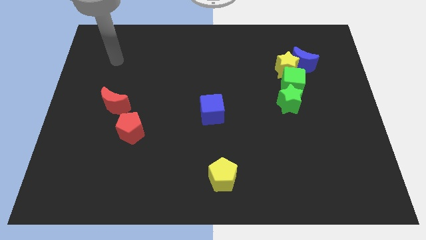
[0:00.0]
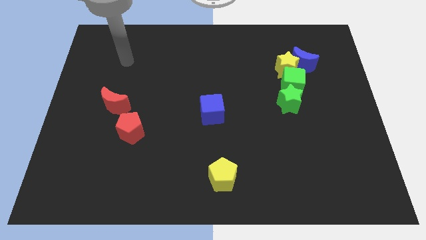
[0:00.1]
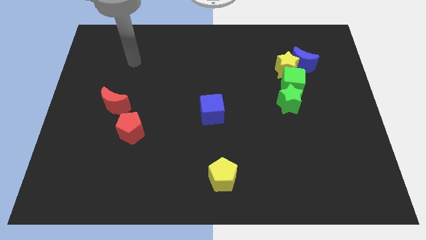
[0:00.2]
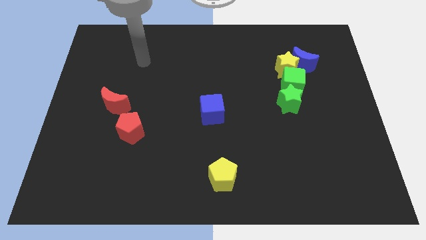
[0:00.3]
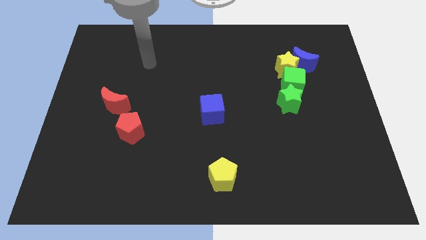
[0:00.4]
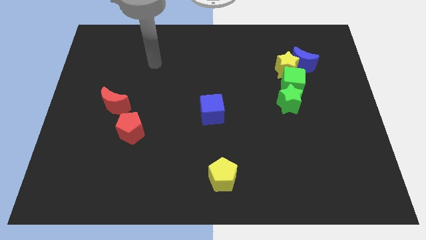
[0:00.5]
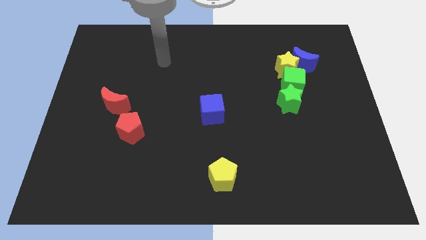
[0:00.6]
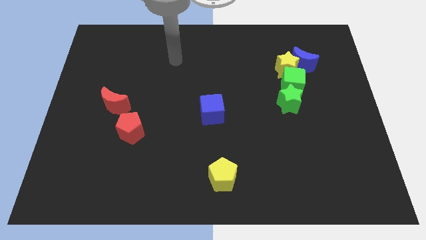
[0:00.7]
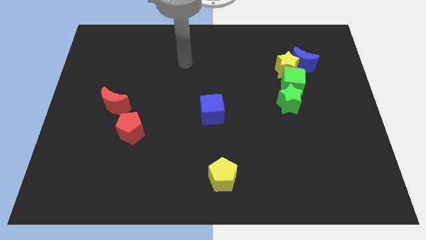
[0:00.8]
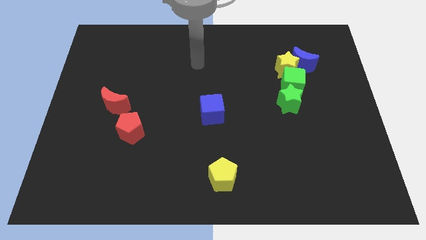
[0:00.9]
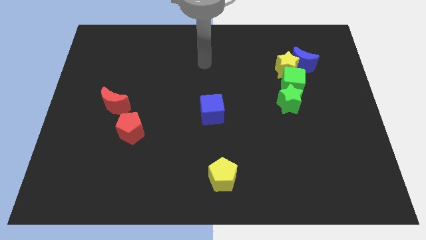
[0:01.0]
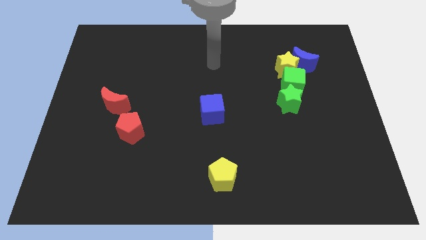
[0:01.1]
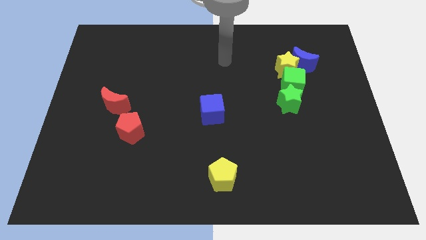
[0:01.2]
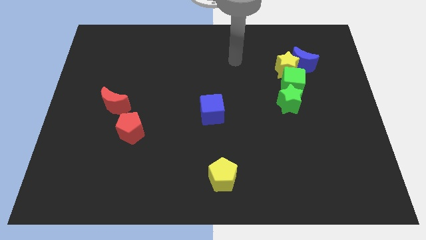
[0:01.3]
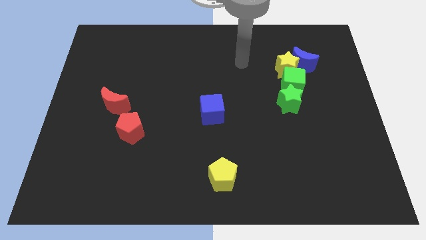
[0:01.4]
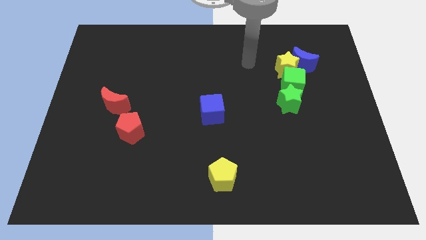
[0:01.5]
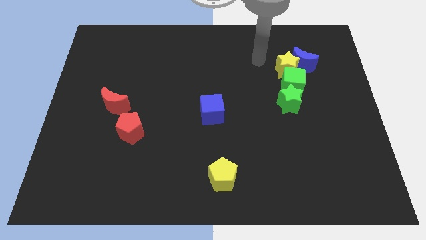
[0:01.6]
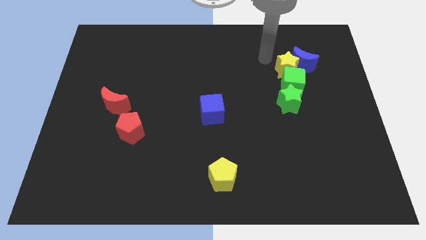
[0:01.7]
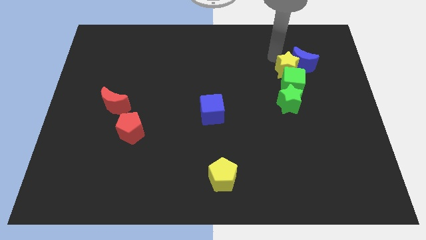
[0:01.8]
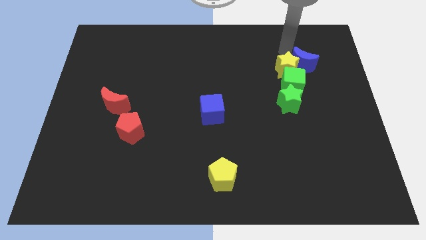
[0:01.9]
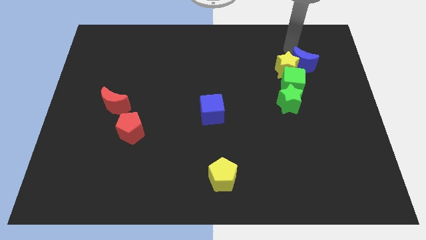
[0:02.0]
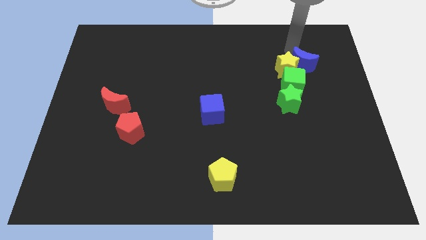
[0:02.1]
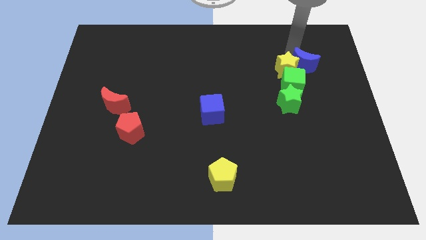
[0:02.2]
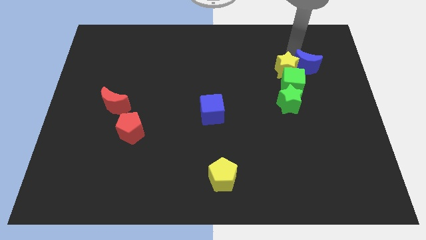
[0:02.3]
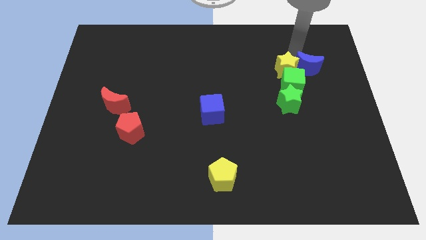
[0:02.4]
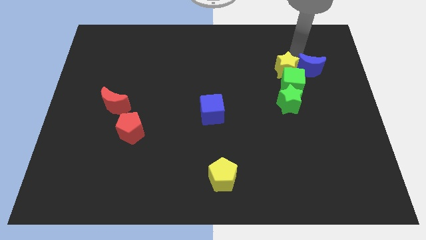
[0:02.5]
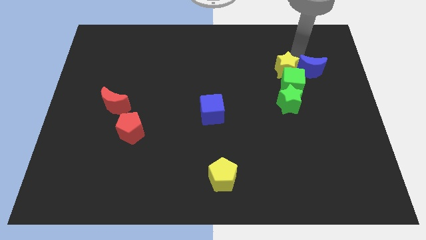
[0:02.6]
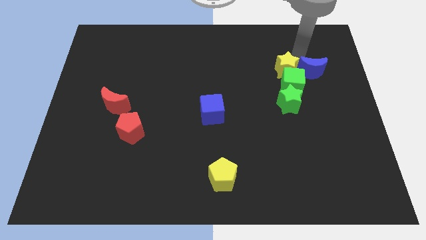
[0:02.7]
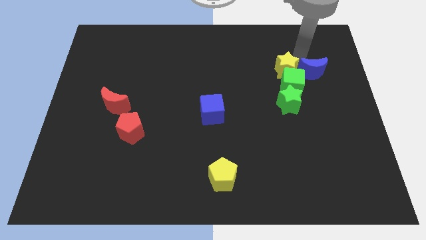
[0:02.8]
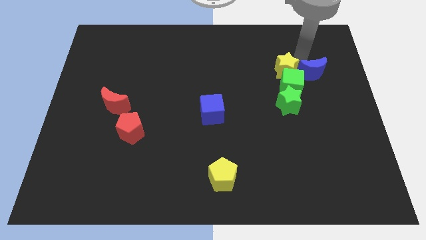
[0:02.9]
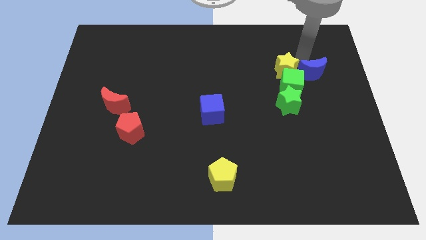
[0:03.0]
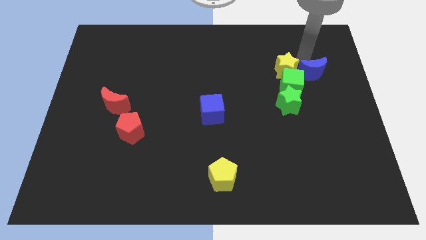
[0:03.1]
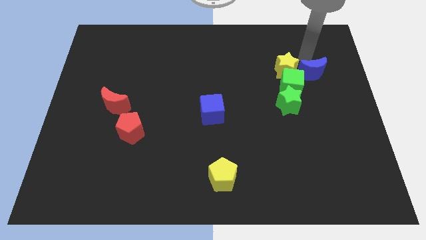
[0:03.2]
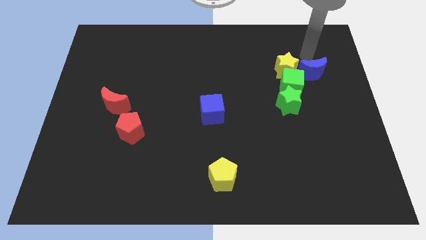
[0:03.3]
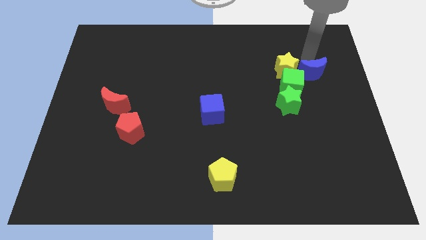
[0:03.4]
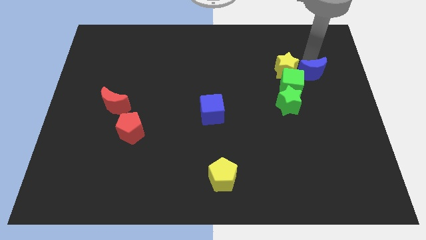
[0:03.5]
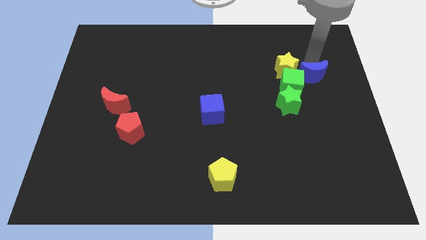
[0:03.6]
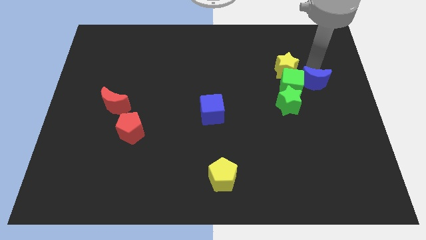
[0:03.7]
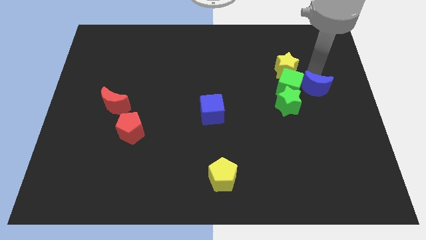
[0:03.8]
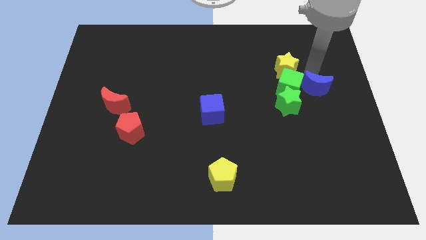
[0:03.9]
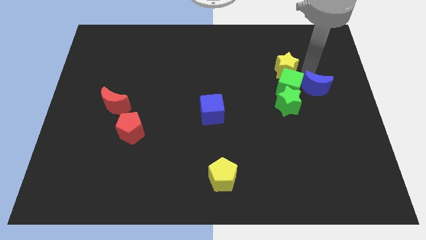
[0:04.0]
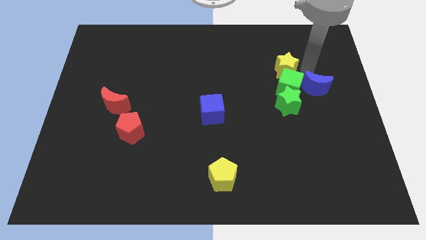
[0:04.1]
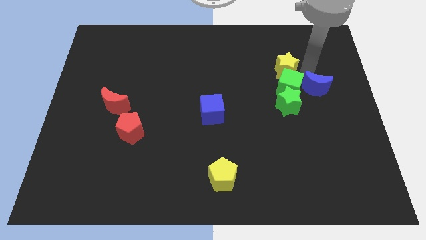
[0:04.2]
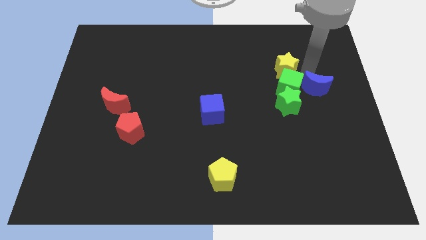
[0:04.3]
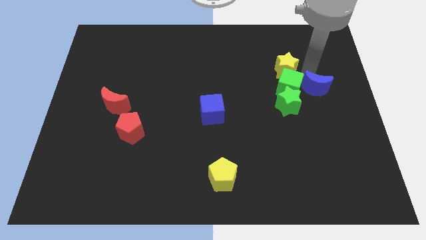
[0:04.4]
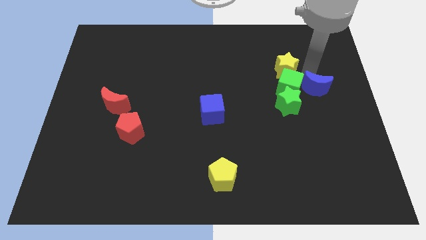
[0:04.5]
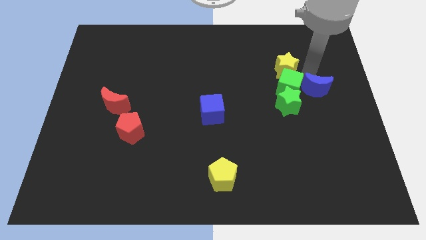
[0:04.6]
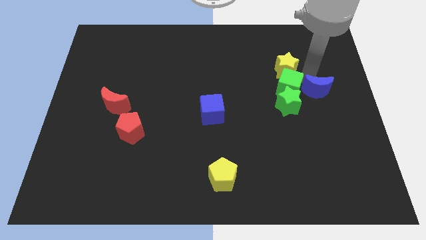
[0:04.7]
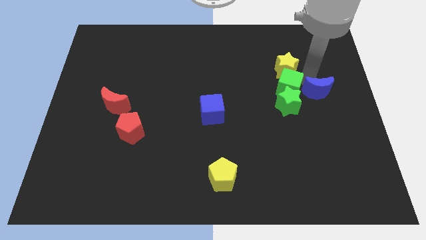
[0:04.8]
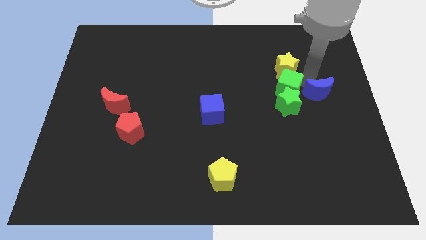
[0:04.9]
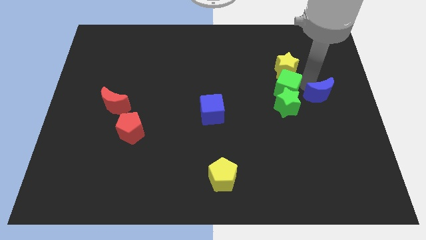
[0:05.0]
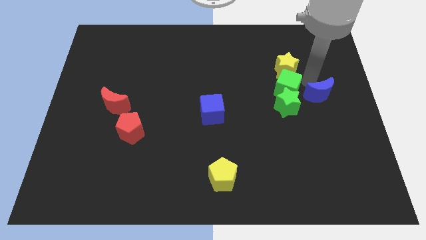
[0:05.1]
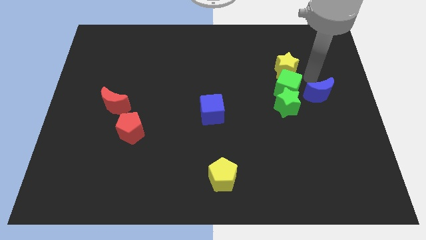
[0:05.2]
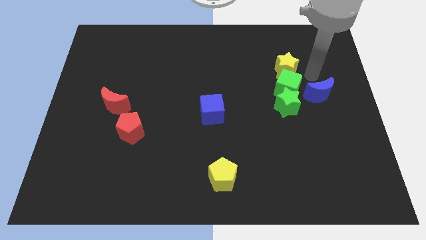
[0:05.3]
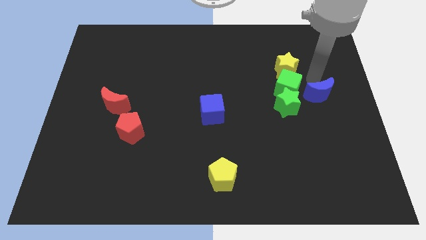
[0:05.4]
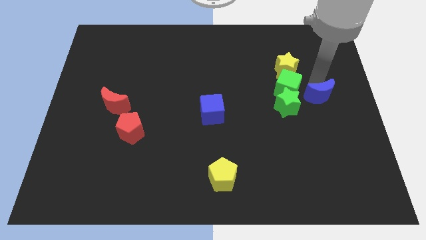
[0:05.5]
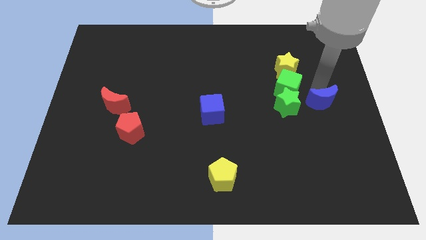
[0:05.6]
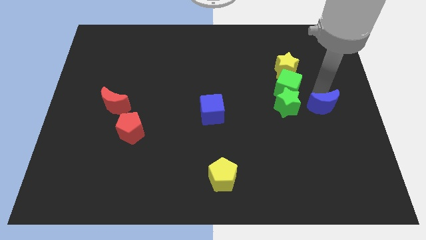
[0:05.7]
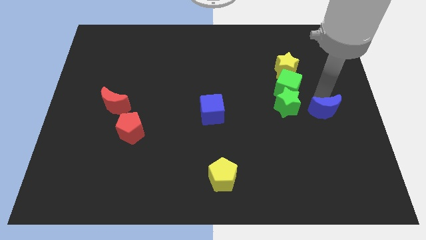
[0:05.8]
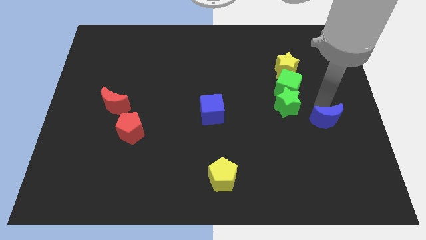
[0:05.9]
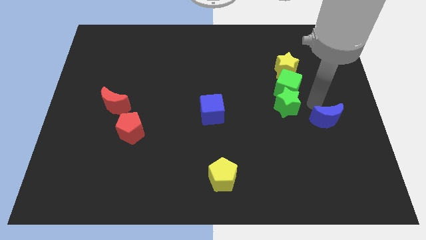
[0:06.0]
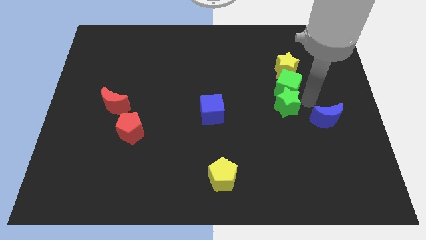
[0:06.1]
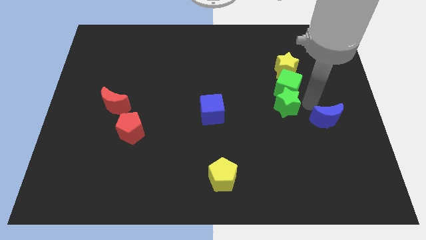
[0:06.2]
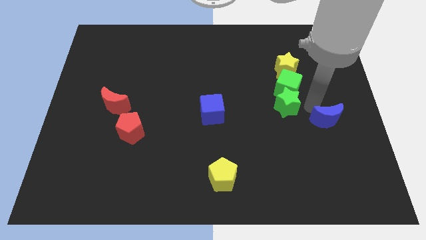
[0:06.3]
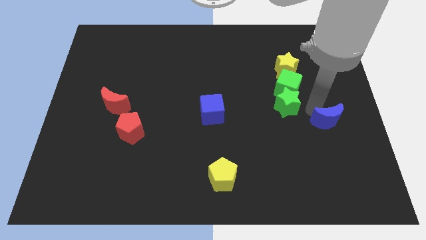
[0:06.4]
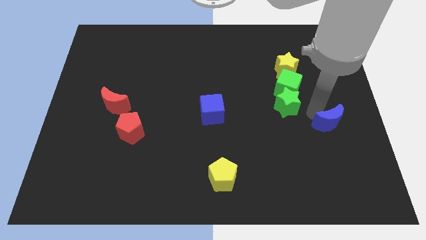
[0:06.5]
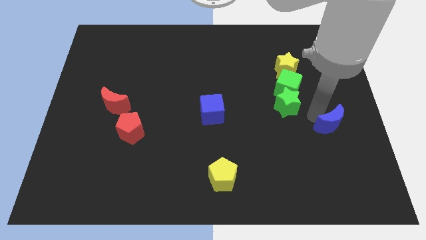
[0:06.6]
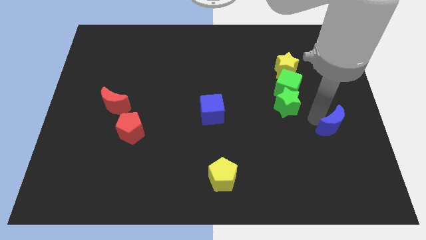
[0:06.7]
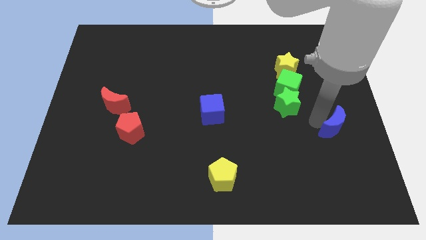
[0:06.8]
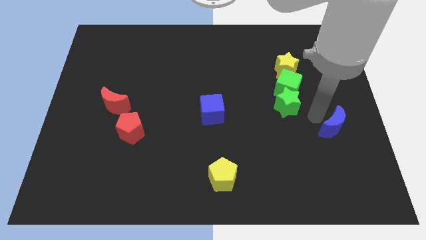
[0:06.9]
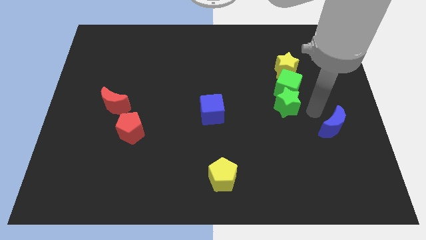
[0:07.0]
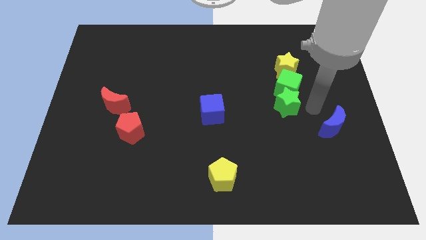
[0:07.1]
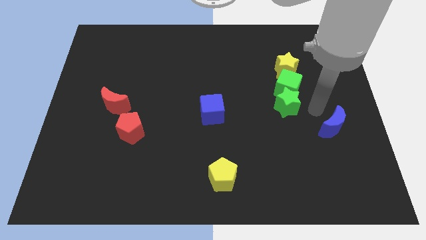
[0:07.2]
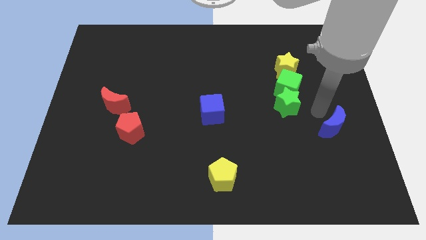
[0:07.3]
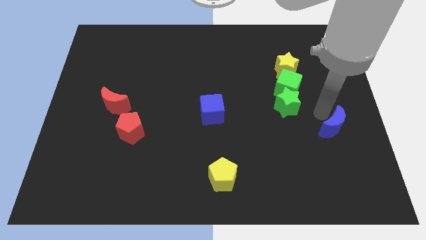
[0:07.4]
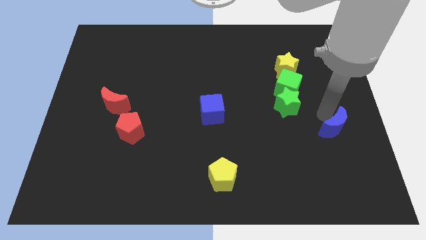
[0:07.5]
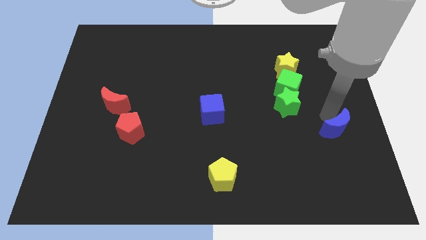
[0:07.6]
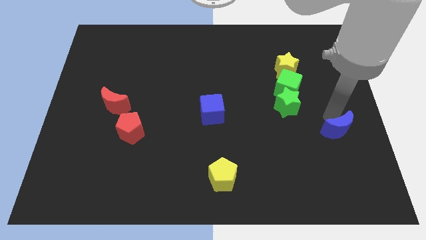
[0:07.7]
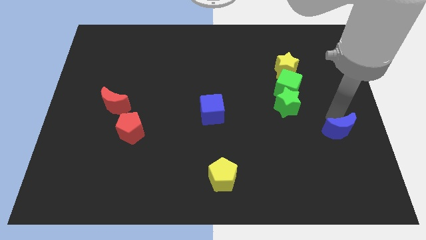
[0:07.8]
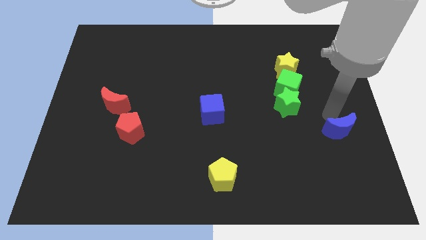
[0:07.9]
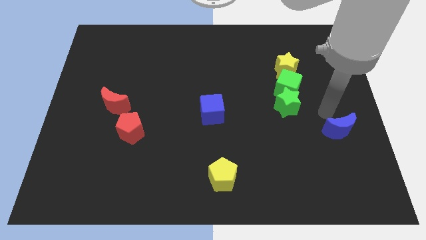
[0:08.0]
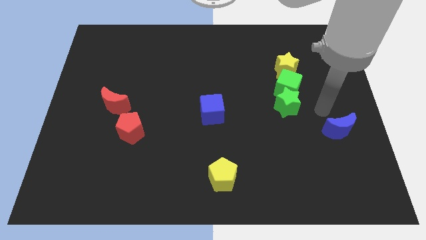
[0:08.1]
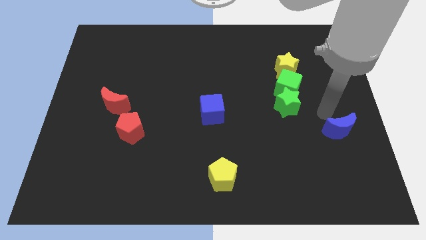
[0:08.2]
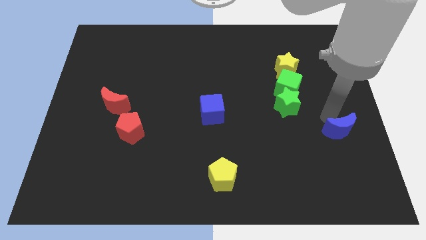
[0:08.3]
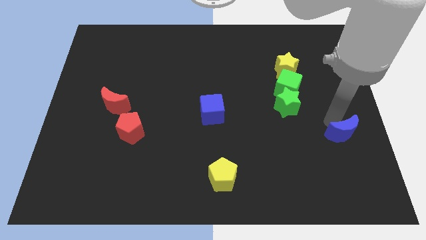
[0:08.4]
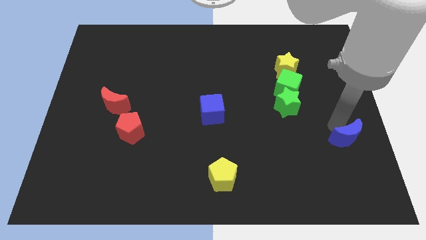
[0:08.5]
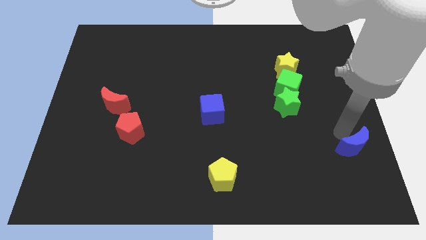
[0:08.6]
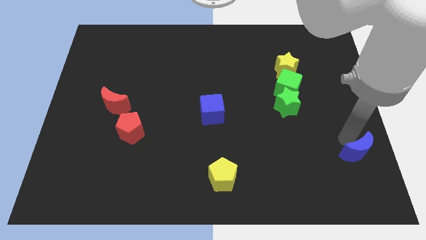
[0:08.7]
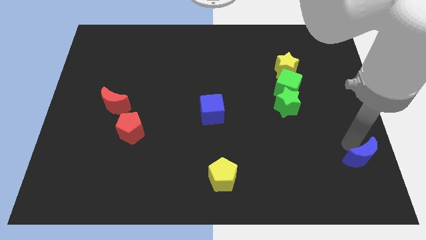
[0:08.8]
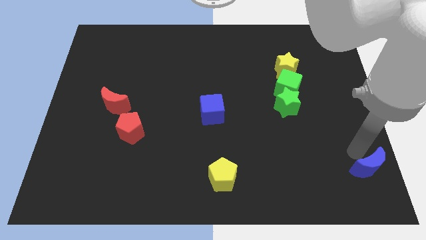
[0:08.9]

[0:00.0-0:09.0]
slide the blue moon to the lower right corner
